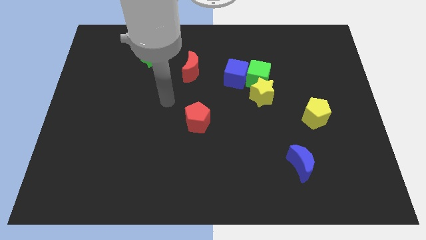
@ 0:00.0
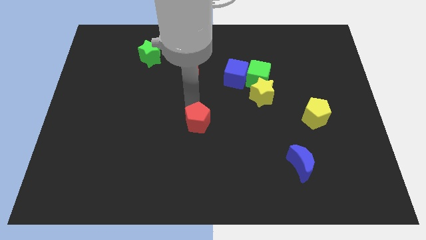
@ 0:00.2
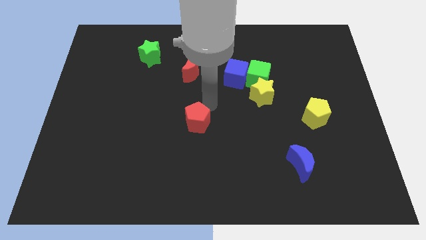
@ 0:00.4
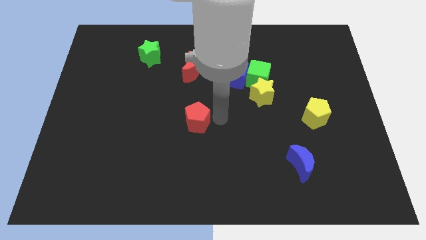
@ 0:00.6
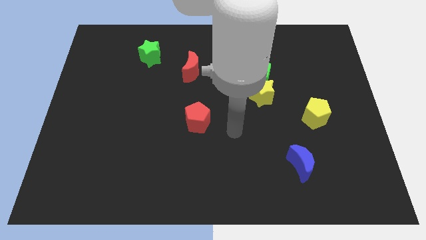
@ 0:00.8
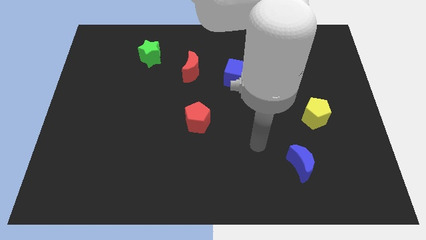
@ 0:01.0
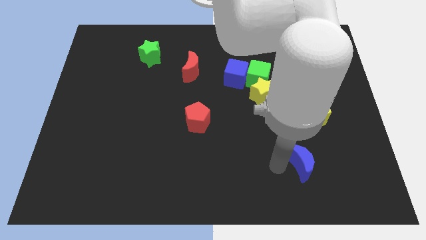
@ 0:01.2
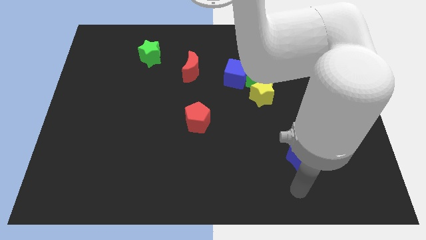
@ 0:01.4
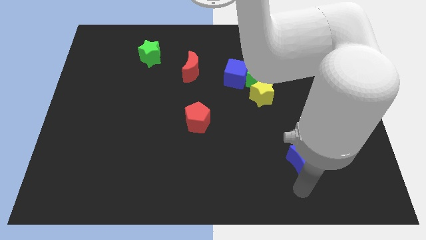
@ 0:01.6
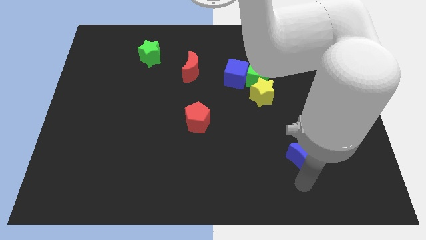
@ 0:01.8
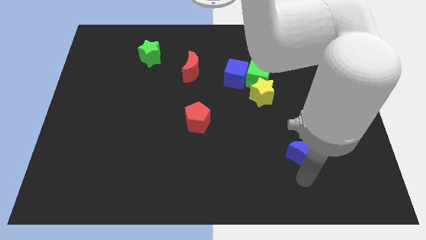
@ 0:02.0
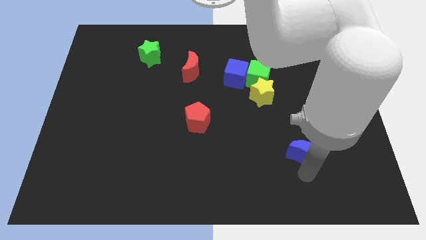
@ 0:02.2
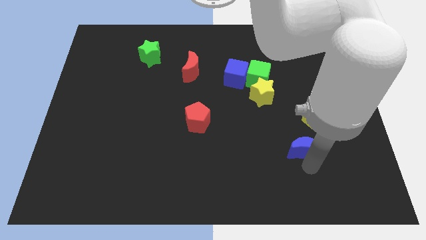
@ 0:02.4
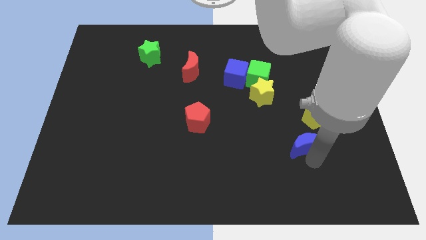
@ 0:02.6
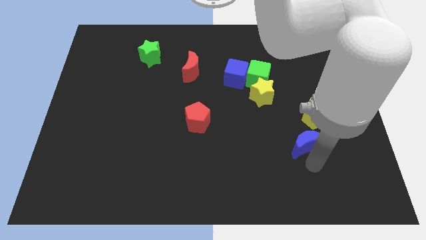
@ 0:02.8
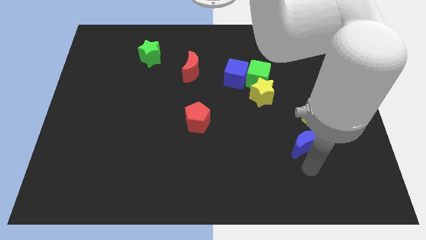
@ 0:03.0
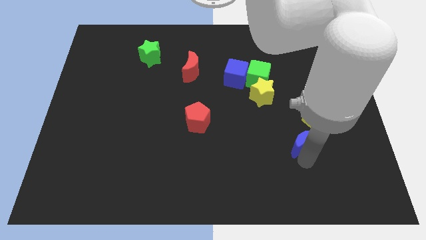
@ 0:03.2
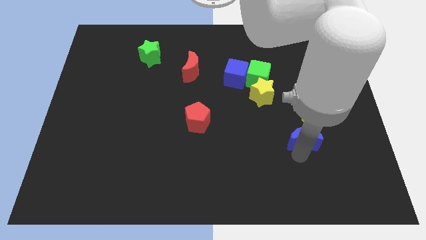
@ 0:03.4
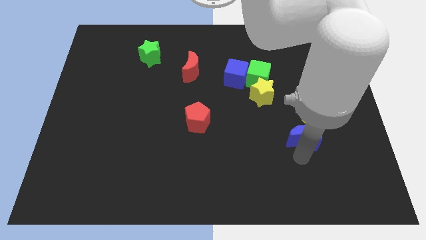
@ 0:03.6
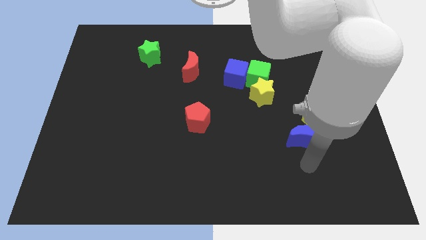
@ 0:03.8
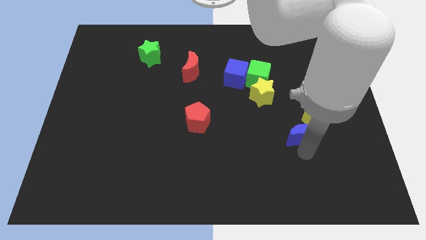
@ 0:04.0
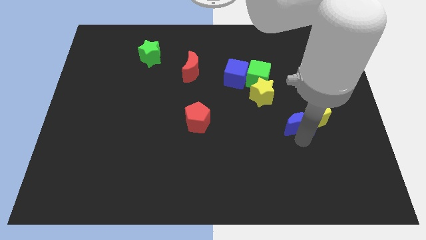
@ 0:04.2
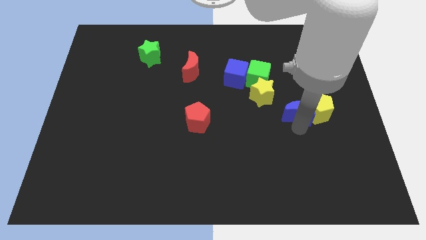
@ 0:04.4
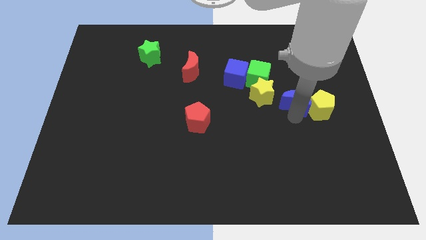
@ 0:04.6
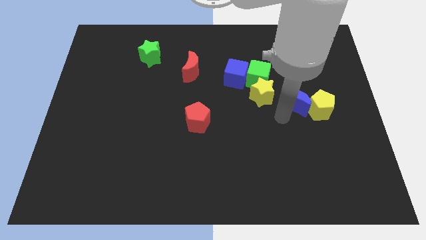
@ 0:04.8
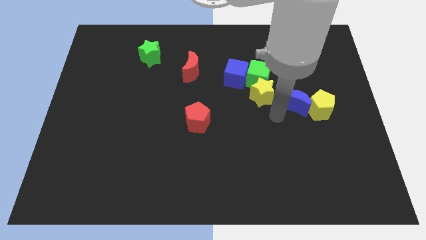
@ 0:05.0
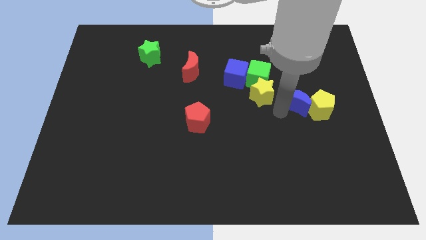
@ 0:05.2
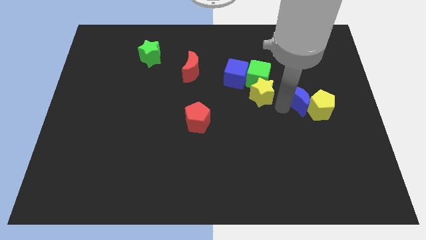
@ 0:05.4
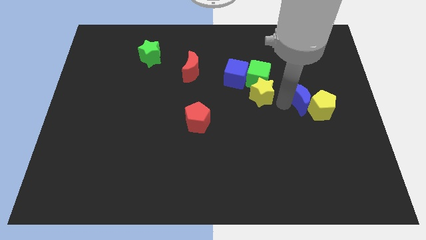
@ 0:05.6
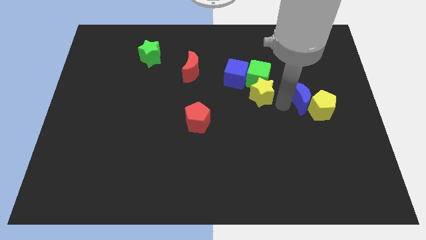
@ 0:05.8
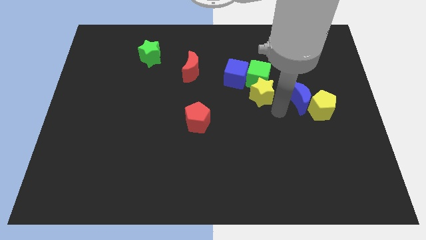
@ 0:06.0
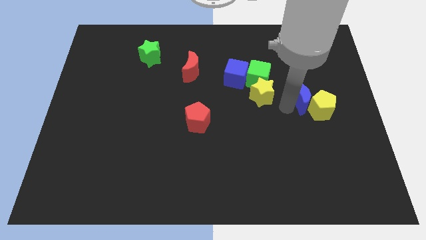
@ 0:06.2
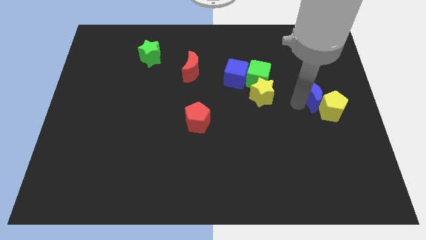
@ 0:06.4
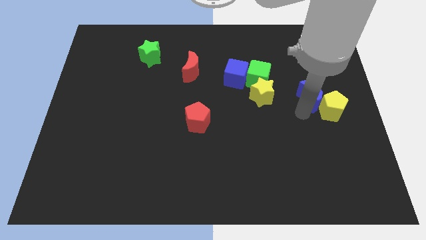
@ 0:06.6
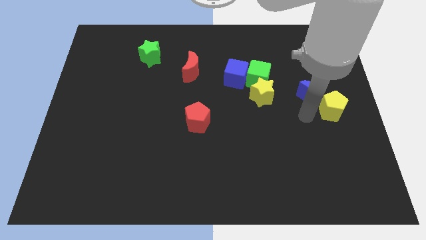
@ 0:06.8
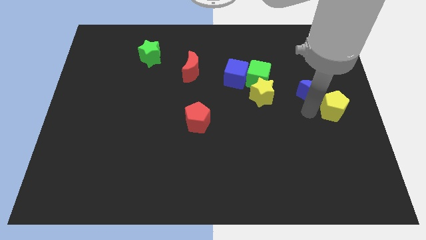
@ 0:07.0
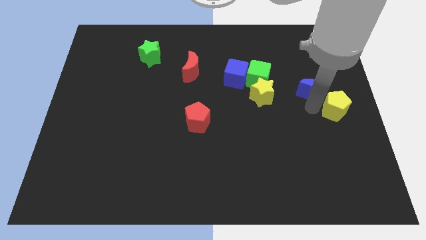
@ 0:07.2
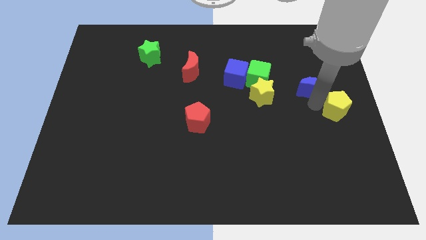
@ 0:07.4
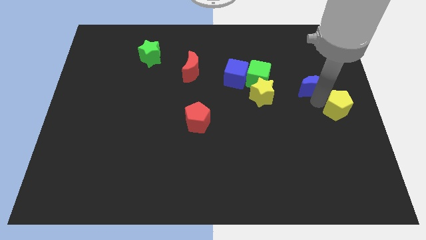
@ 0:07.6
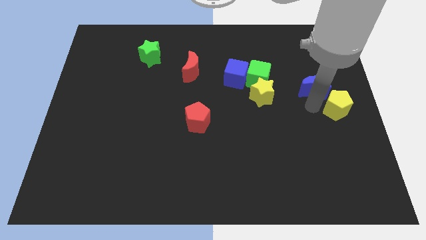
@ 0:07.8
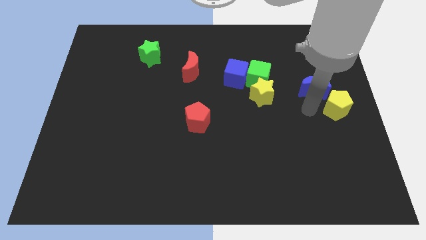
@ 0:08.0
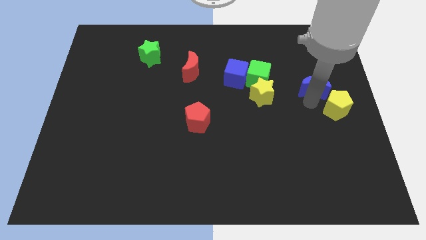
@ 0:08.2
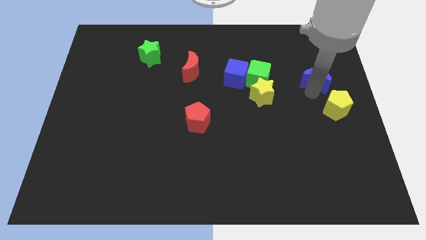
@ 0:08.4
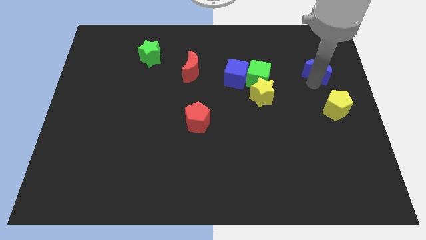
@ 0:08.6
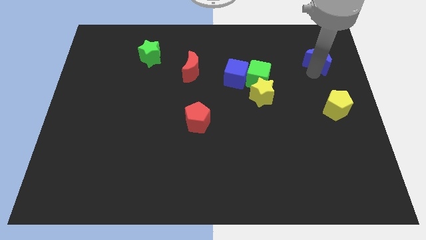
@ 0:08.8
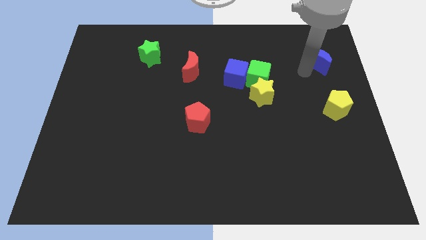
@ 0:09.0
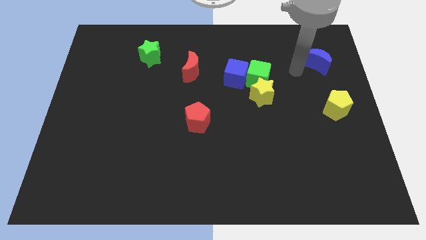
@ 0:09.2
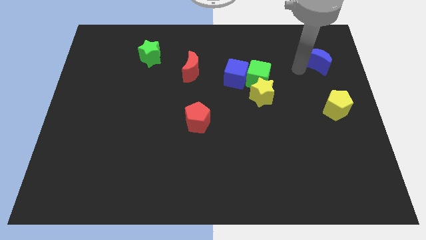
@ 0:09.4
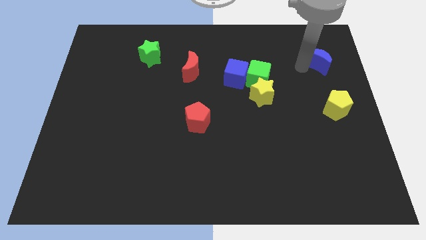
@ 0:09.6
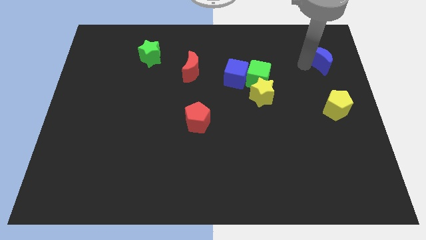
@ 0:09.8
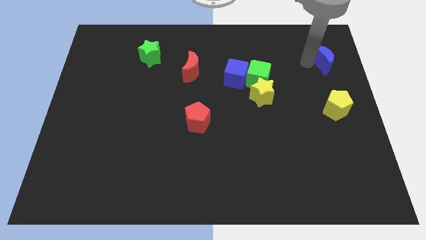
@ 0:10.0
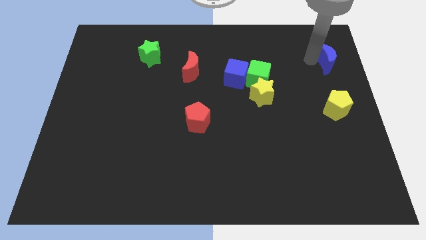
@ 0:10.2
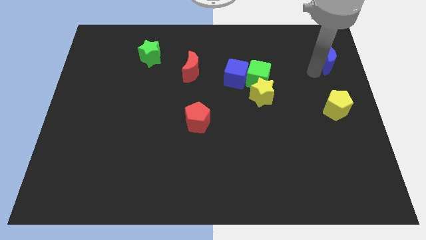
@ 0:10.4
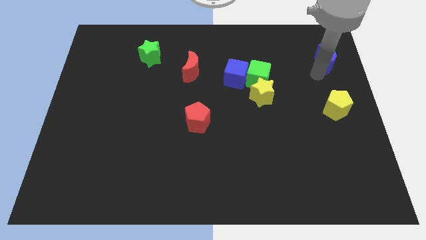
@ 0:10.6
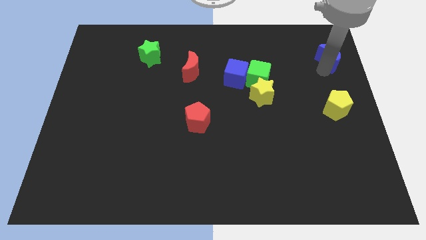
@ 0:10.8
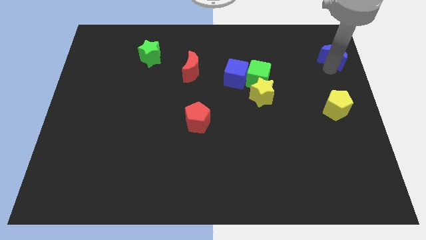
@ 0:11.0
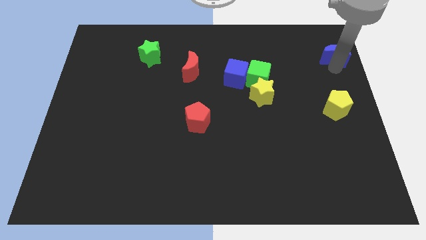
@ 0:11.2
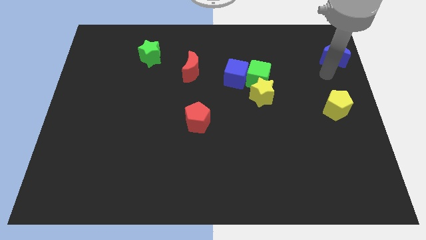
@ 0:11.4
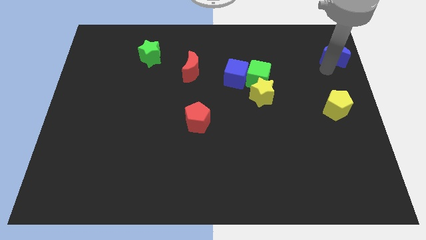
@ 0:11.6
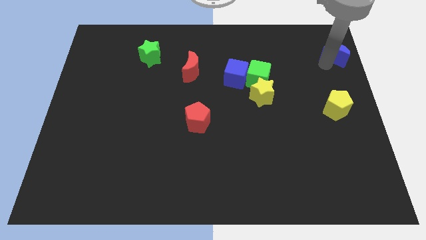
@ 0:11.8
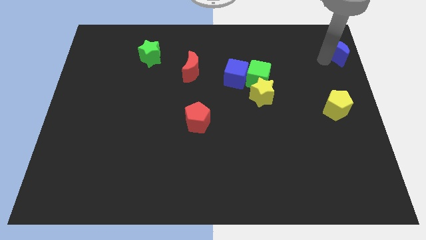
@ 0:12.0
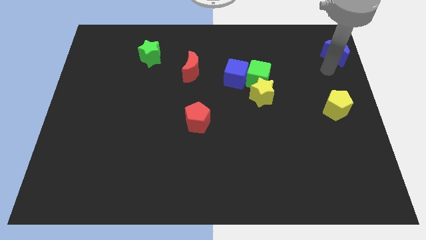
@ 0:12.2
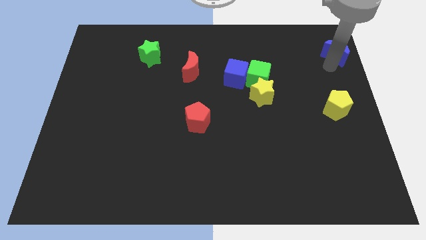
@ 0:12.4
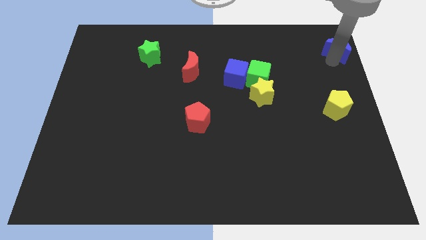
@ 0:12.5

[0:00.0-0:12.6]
put the blue moon to the top right corner

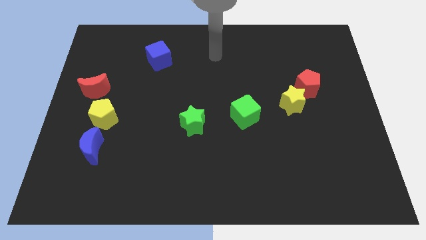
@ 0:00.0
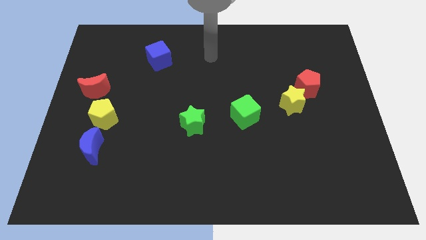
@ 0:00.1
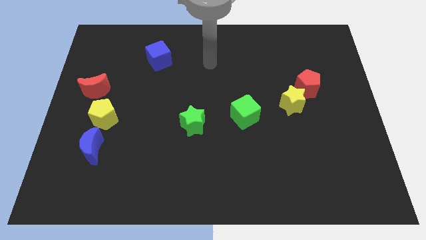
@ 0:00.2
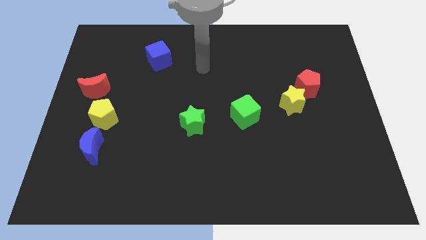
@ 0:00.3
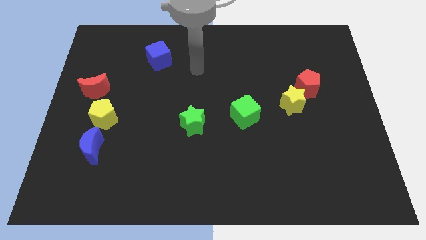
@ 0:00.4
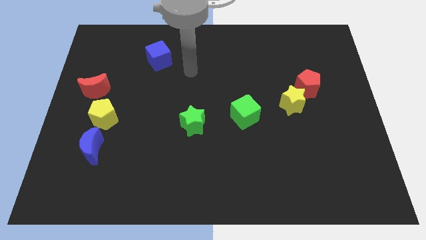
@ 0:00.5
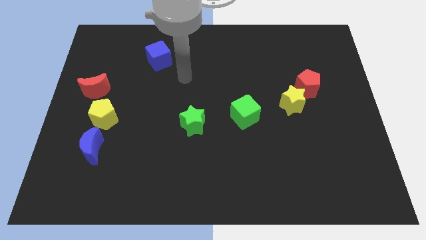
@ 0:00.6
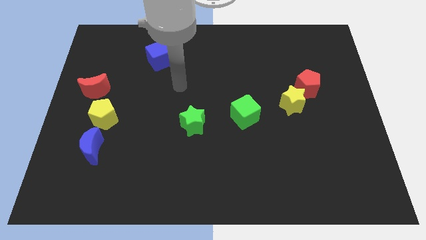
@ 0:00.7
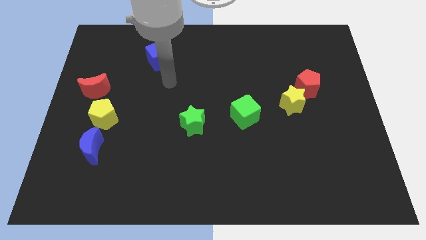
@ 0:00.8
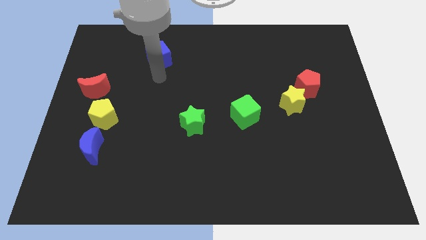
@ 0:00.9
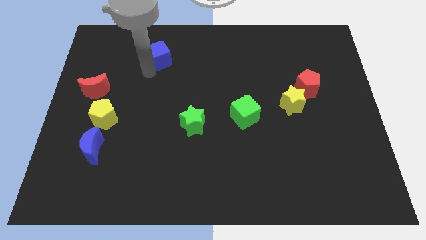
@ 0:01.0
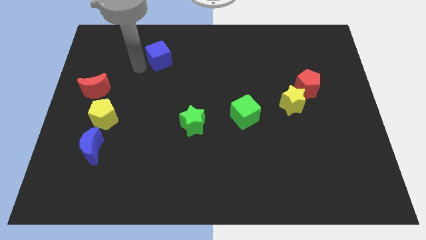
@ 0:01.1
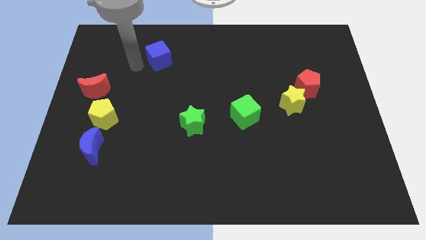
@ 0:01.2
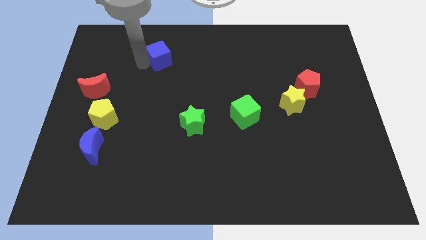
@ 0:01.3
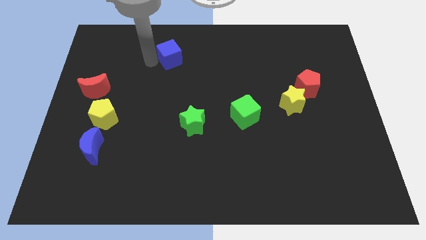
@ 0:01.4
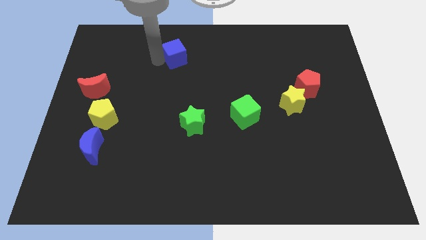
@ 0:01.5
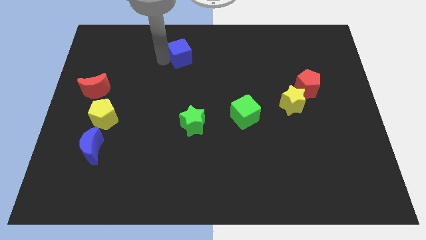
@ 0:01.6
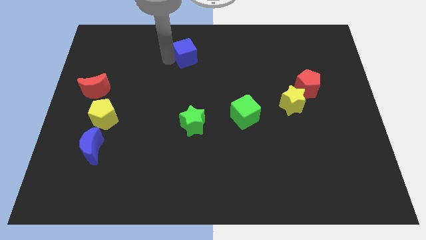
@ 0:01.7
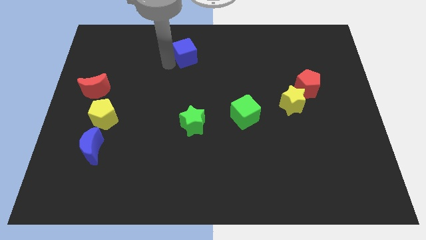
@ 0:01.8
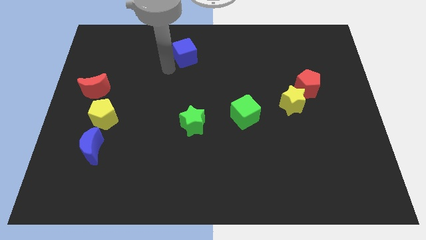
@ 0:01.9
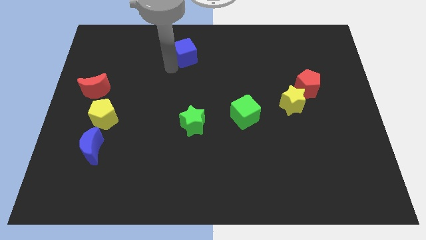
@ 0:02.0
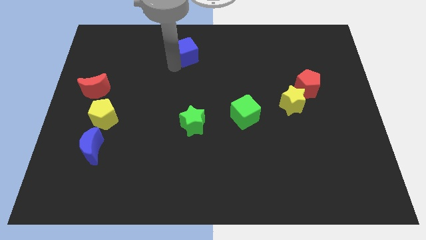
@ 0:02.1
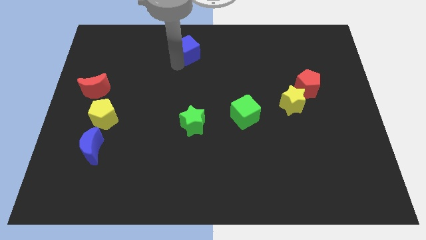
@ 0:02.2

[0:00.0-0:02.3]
slide the blue cube to the towards your base
